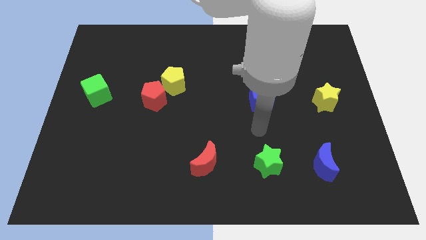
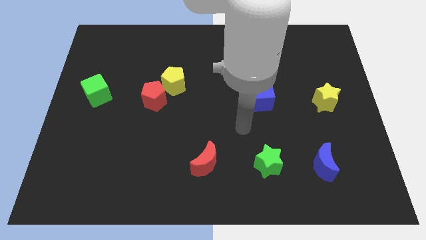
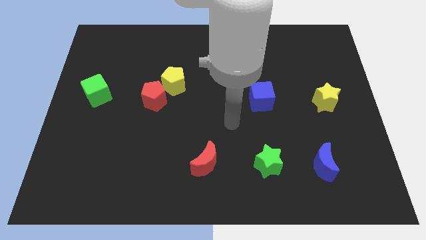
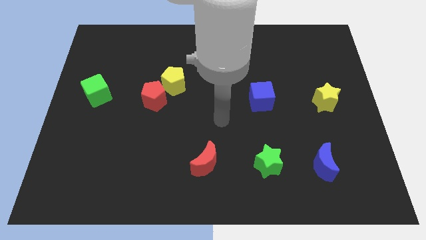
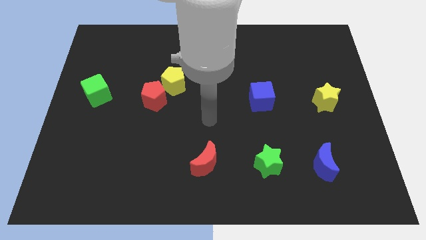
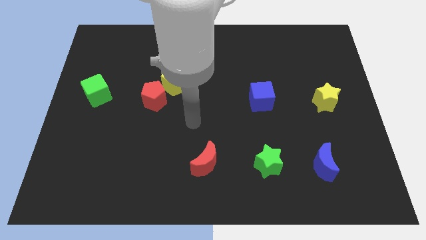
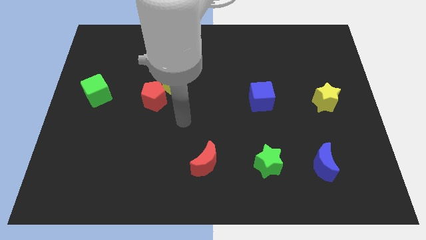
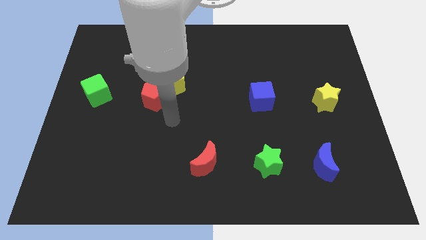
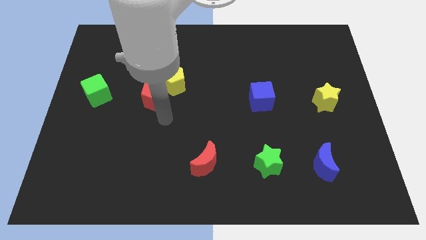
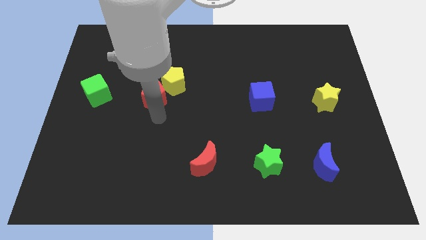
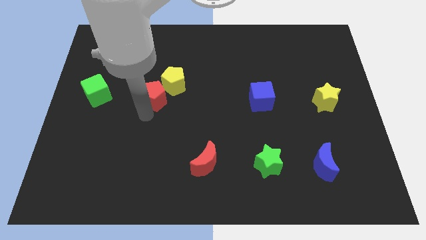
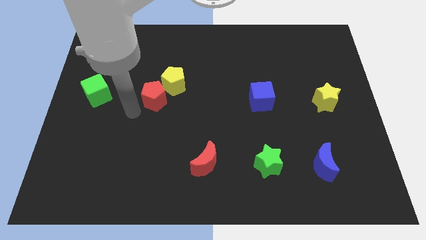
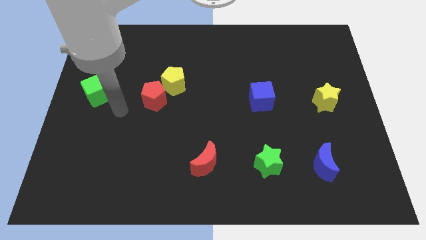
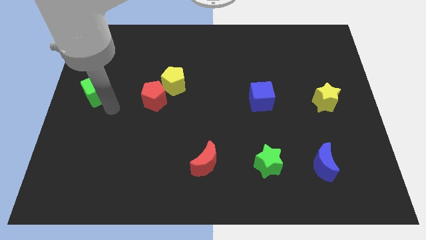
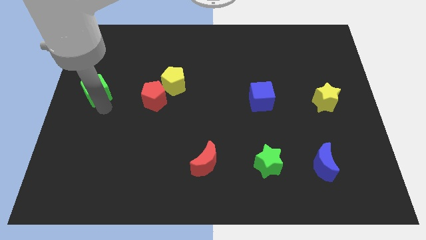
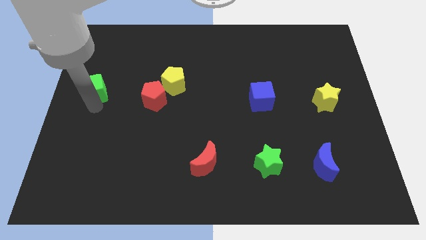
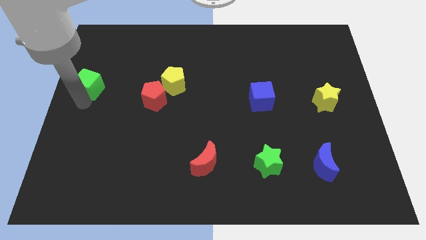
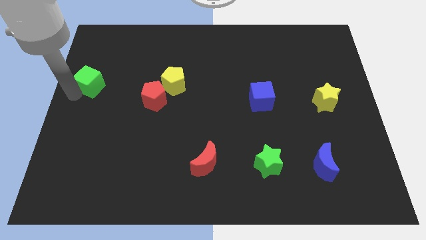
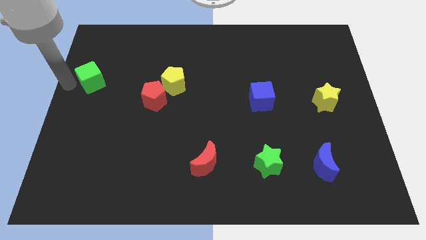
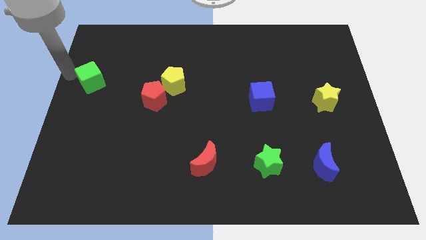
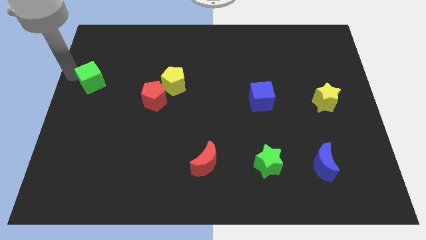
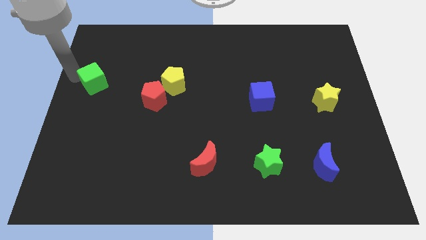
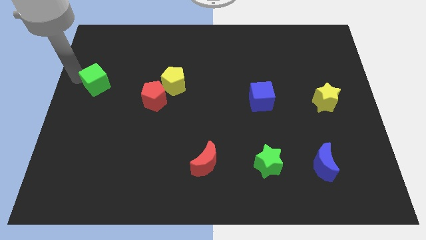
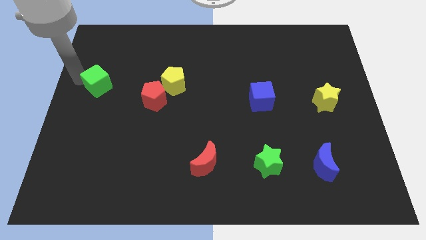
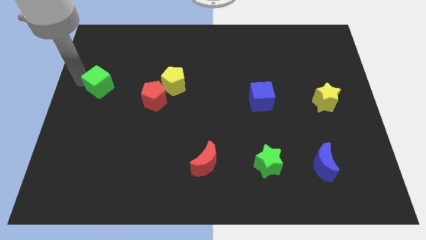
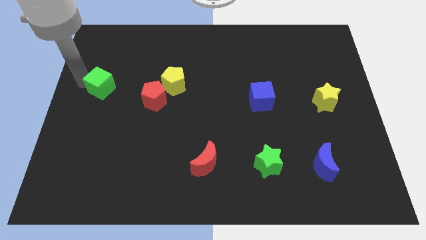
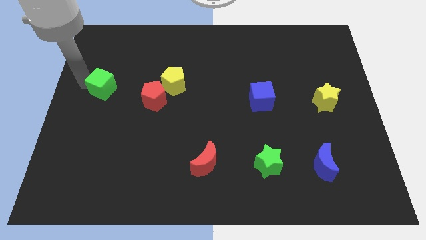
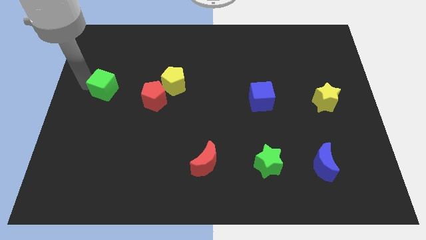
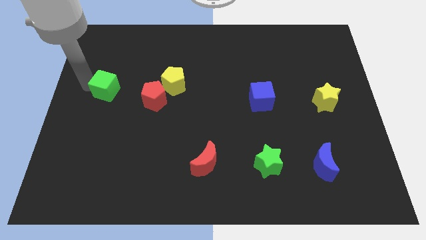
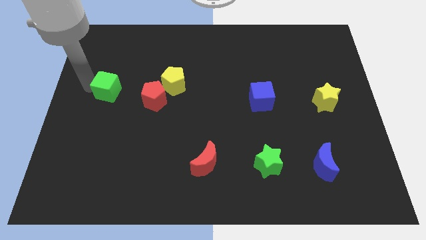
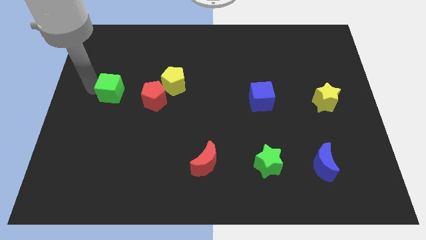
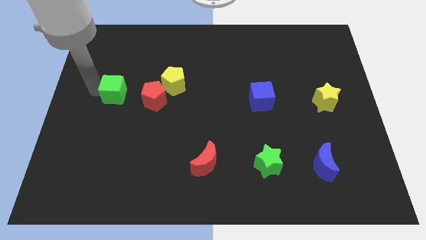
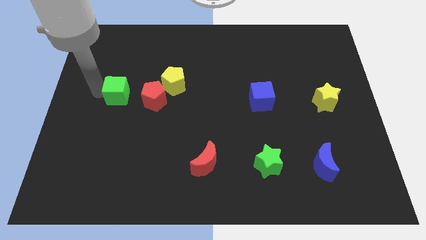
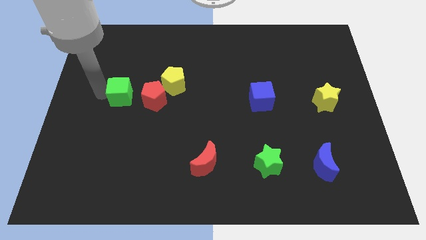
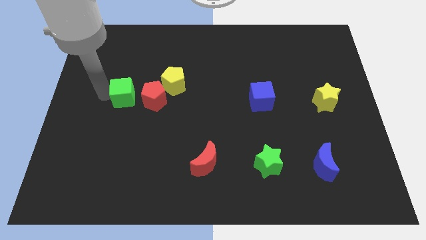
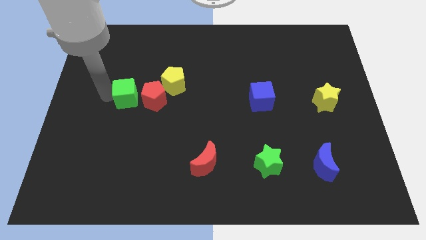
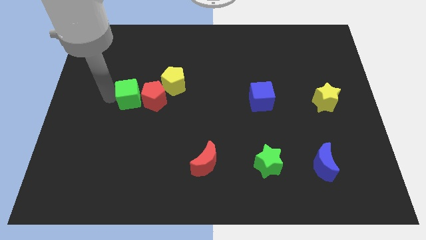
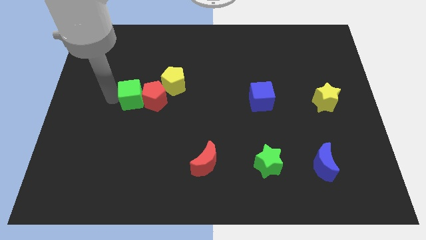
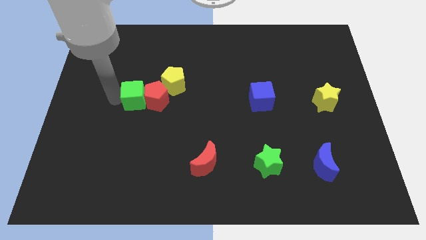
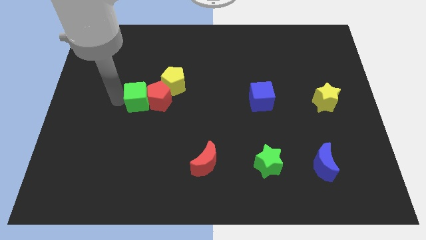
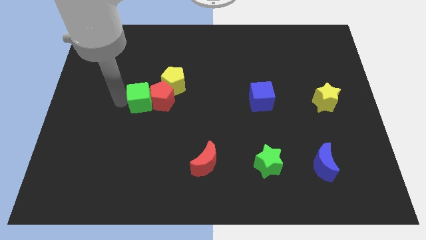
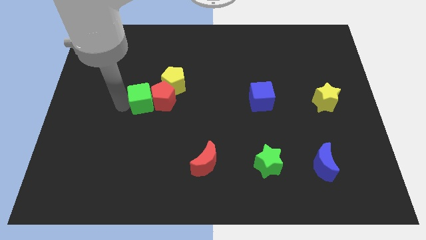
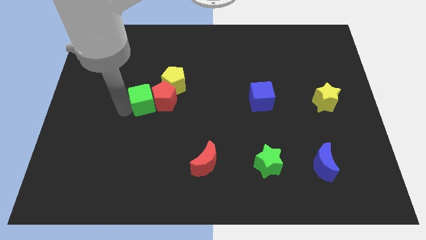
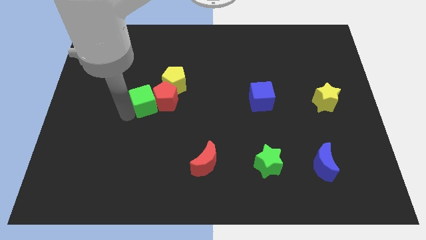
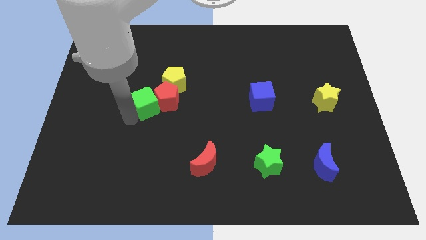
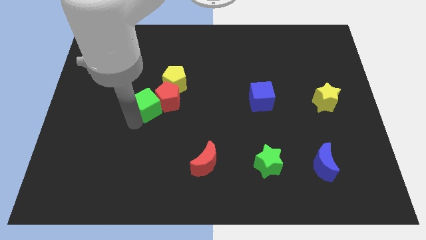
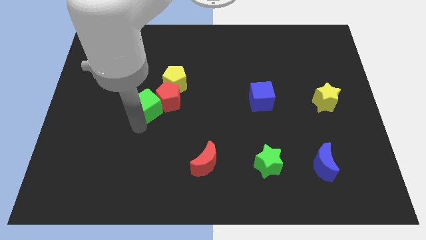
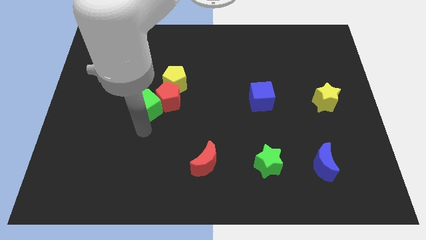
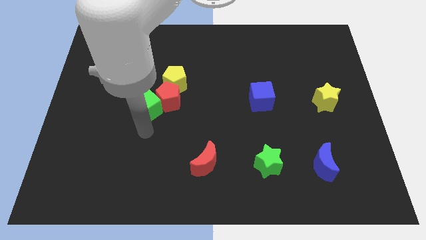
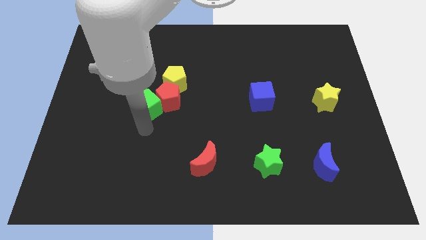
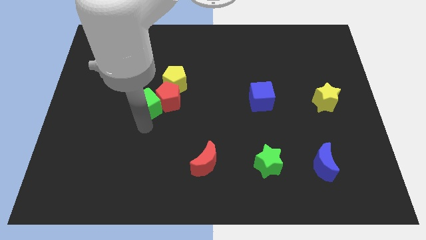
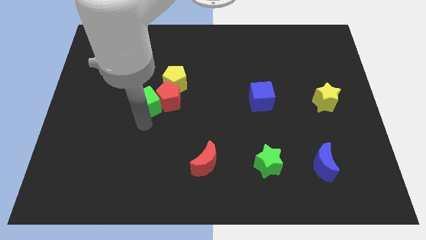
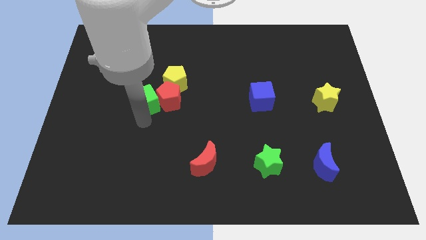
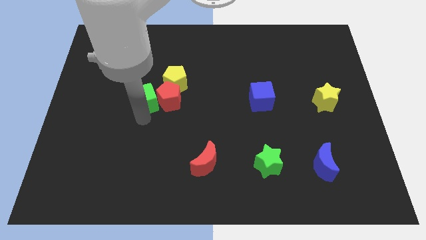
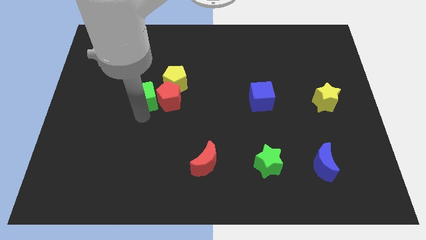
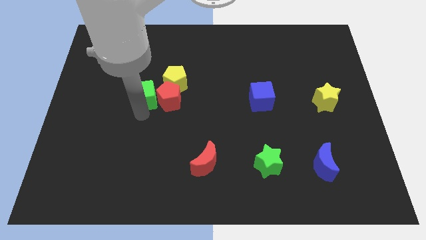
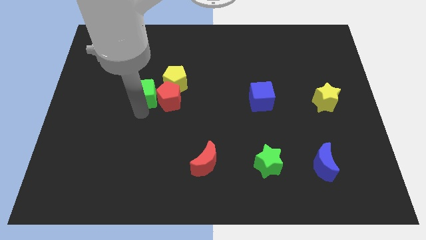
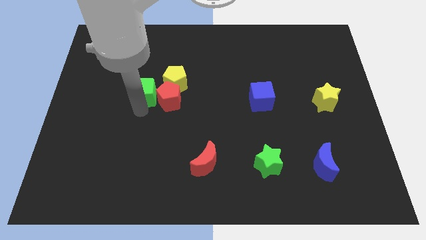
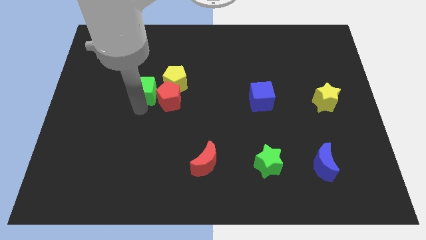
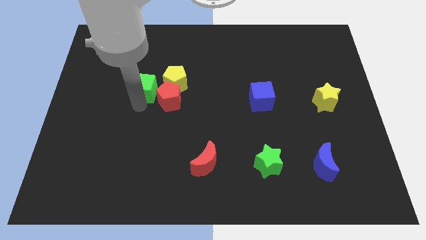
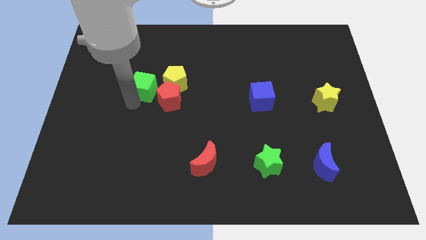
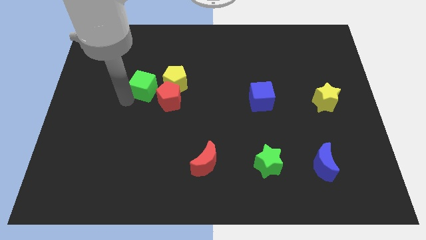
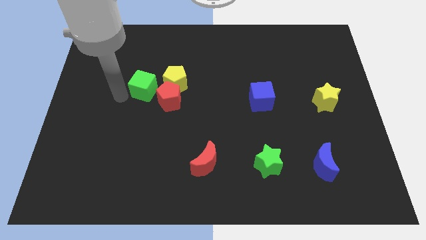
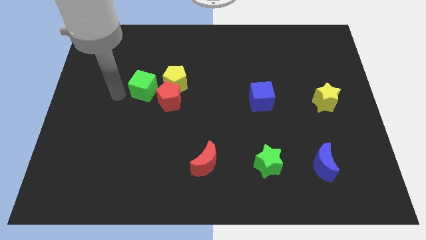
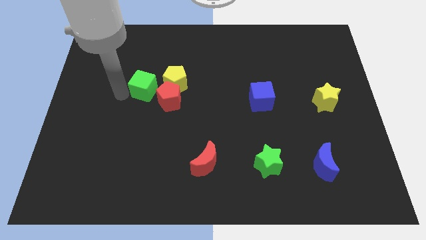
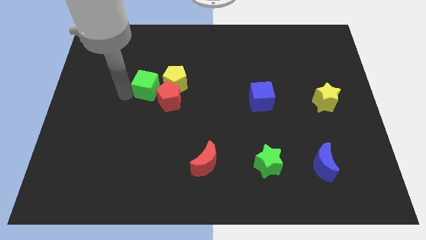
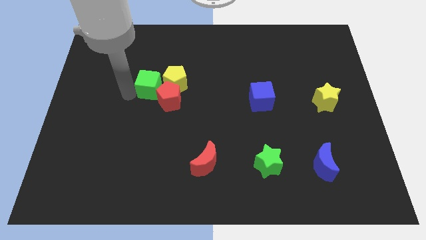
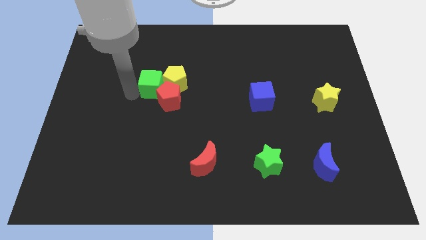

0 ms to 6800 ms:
push the green cube to the yellow pentagon

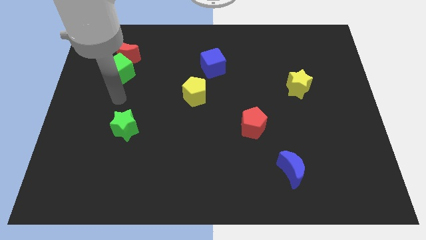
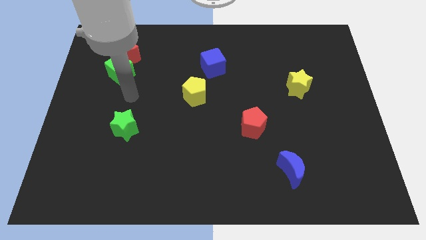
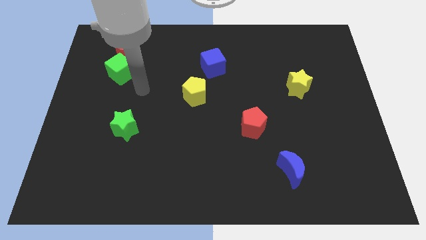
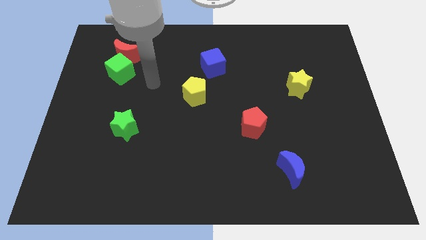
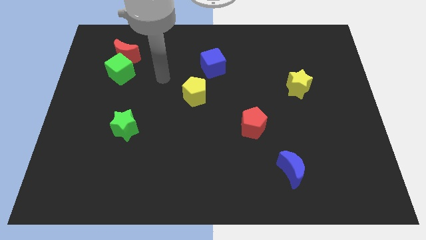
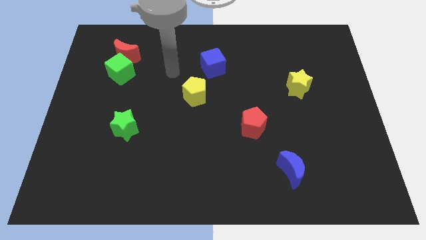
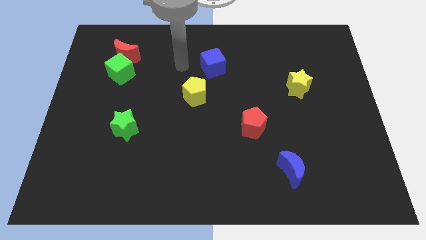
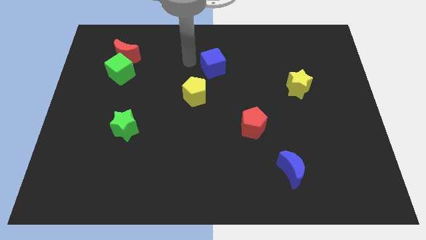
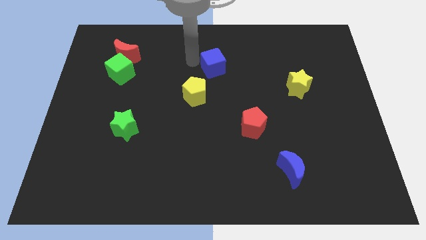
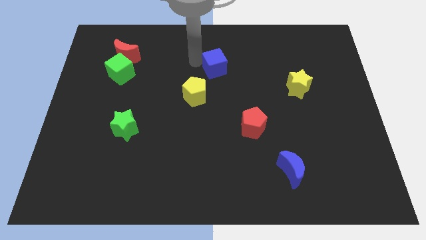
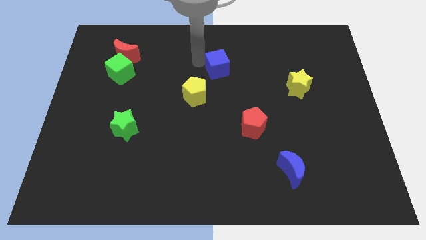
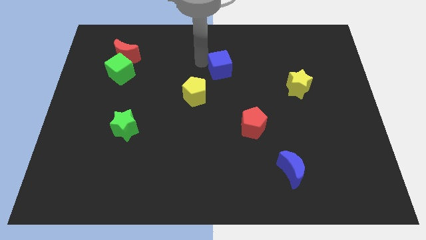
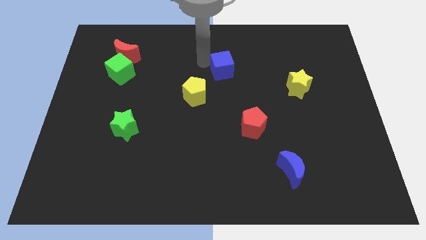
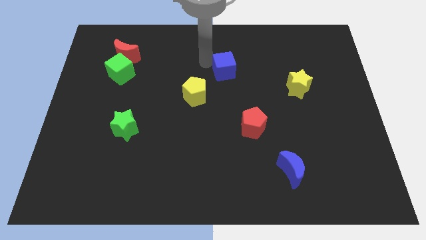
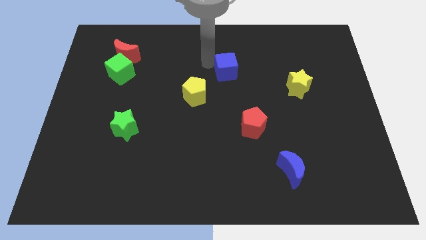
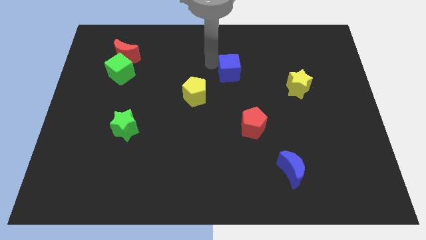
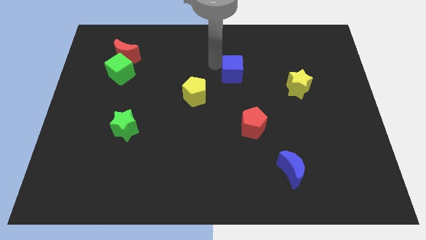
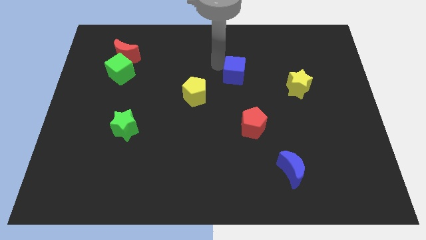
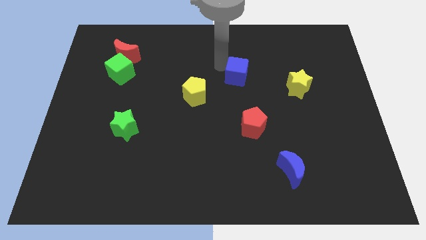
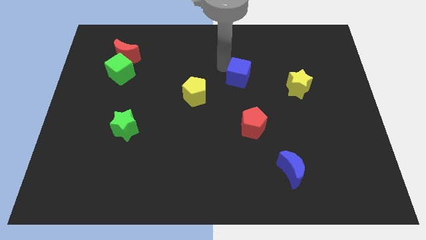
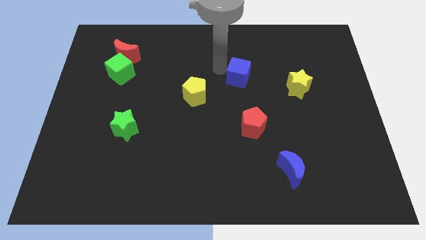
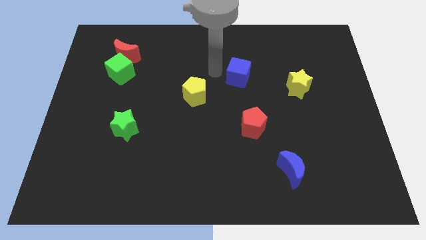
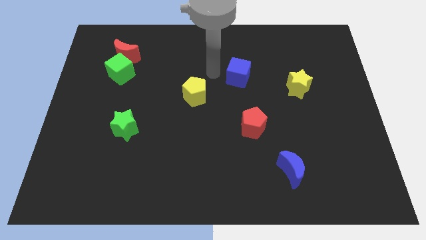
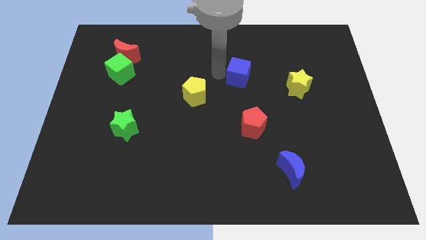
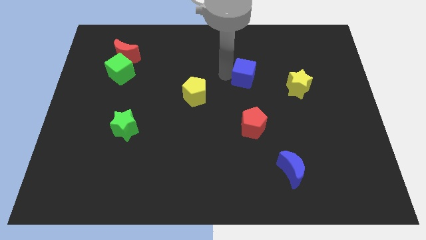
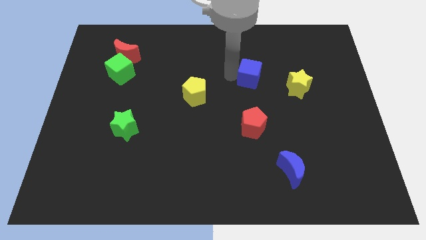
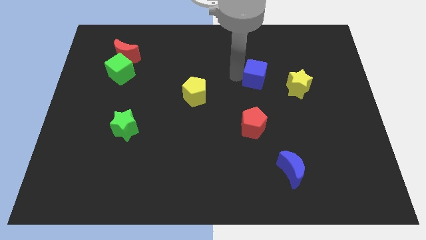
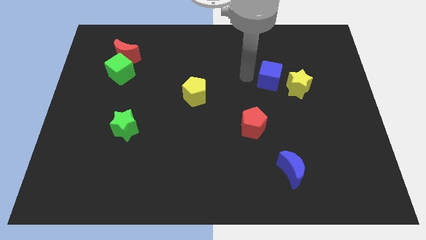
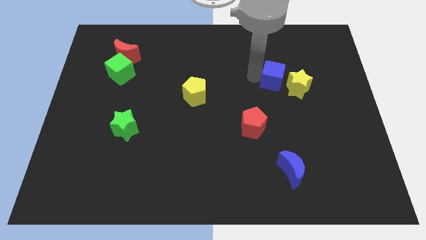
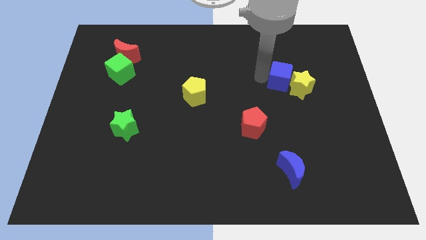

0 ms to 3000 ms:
slide the blue cube close to the yellow star
